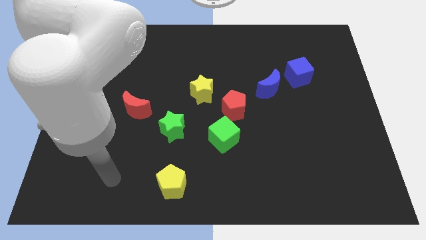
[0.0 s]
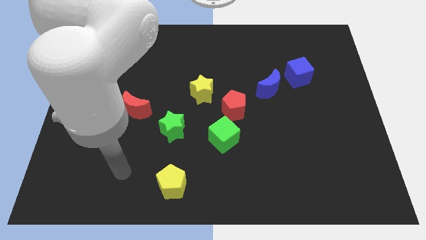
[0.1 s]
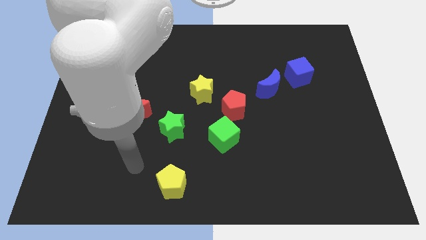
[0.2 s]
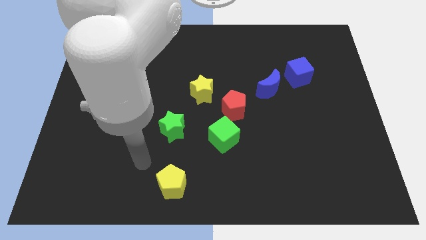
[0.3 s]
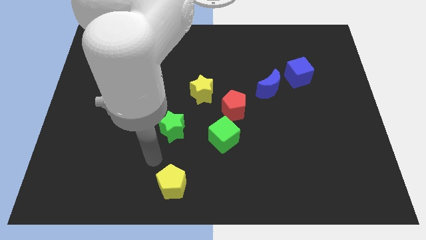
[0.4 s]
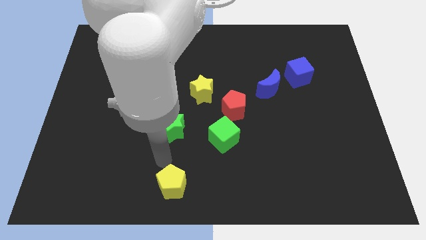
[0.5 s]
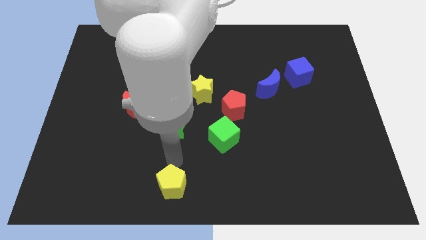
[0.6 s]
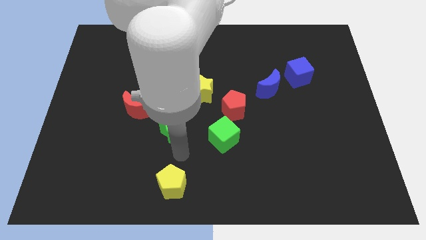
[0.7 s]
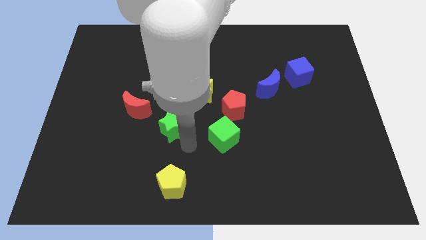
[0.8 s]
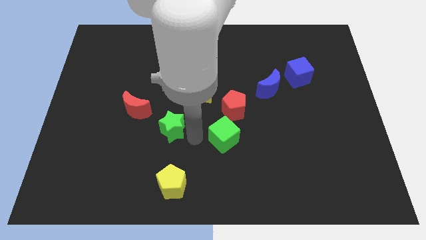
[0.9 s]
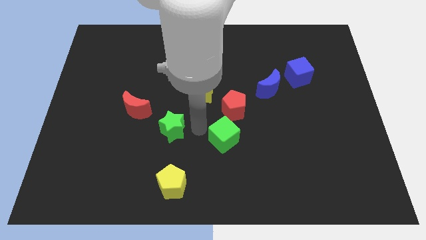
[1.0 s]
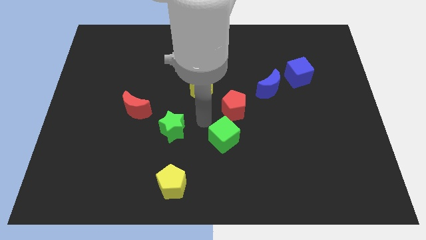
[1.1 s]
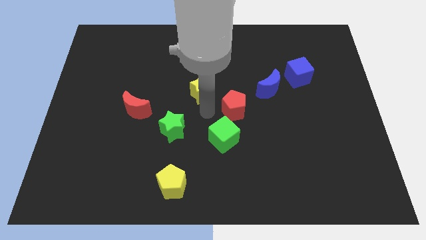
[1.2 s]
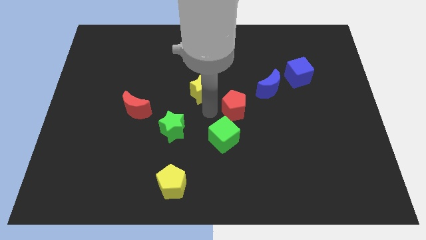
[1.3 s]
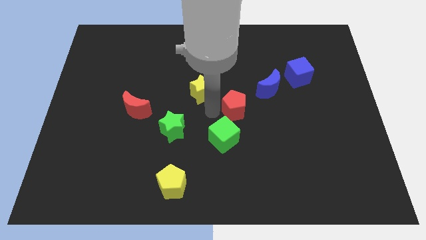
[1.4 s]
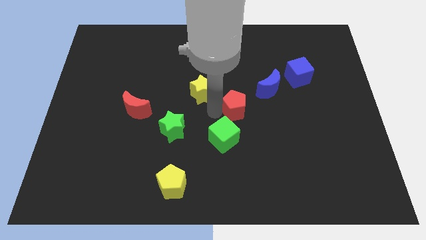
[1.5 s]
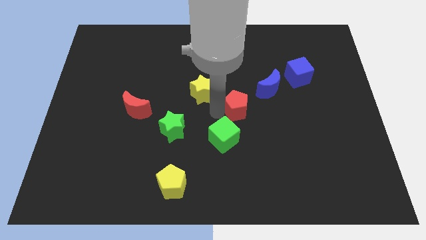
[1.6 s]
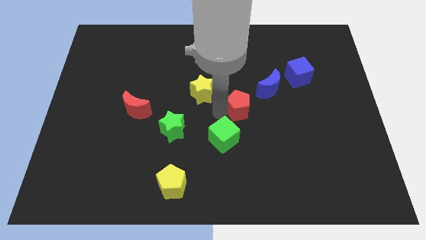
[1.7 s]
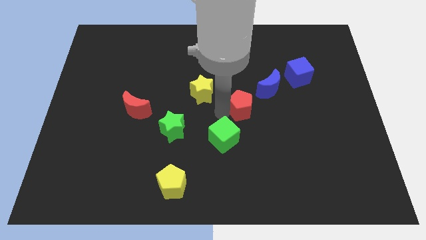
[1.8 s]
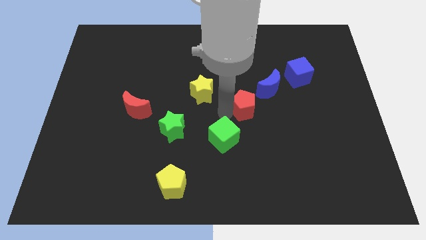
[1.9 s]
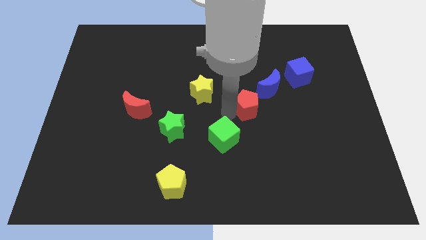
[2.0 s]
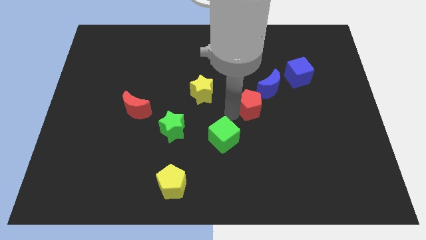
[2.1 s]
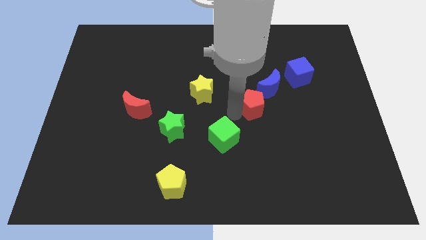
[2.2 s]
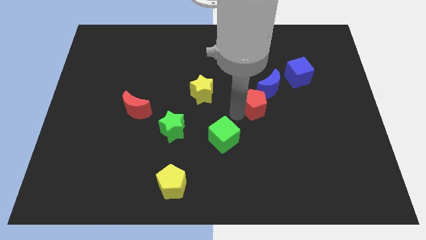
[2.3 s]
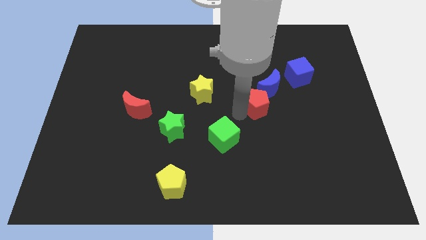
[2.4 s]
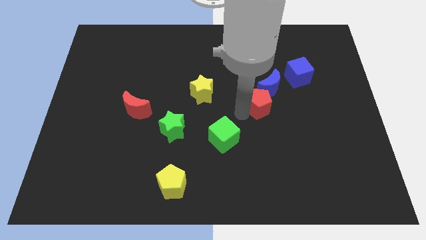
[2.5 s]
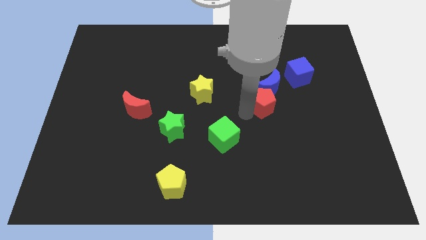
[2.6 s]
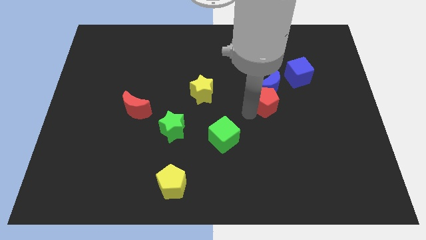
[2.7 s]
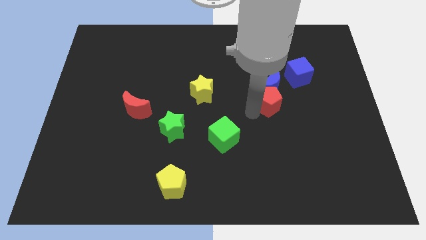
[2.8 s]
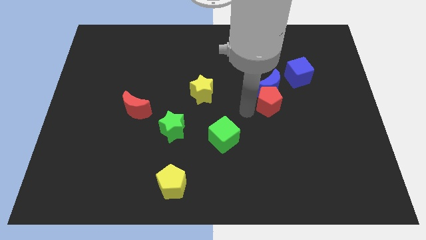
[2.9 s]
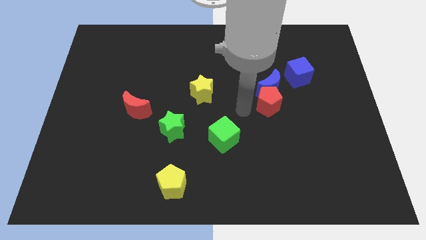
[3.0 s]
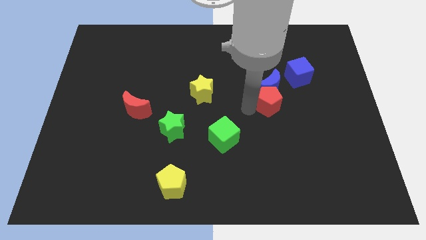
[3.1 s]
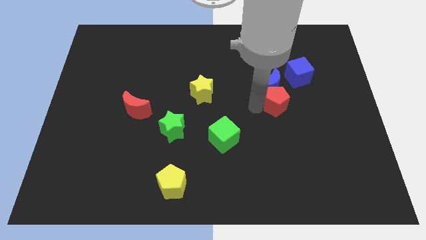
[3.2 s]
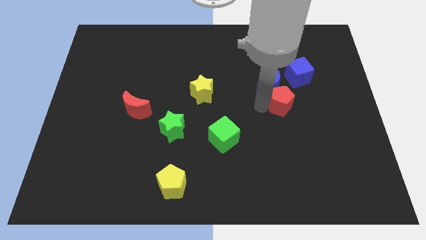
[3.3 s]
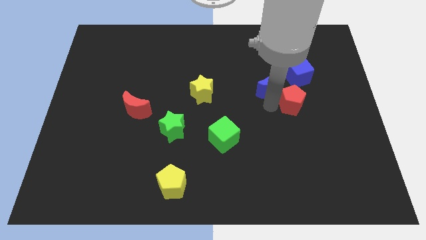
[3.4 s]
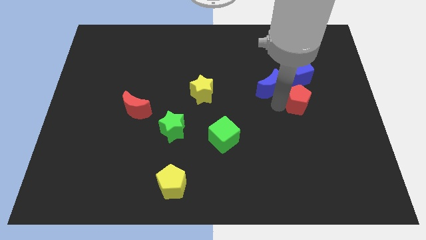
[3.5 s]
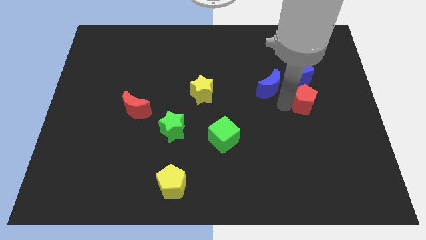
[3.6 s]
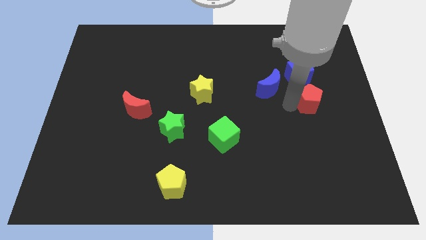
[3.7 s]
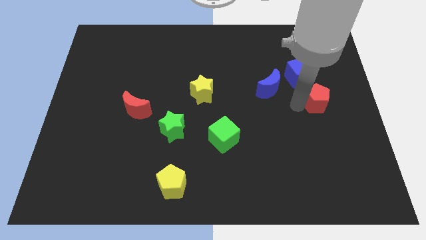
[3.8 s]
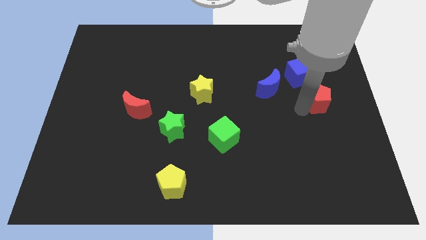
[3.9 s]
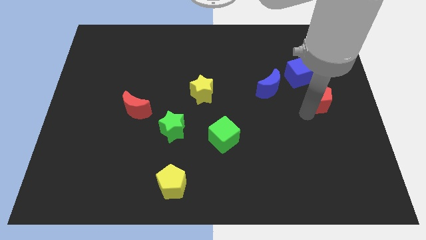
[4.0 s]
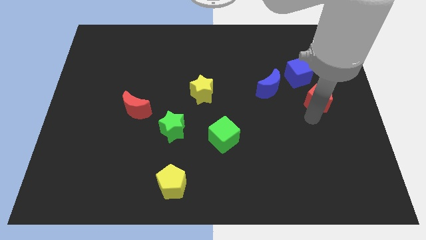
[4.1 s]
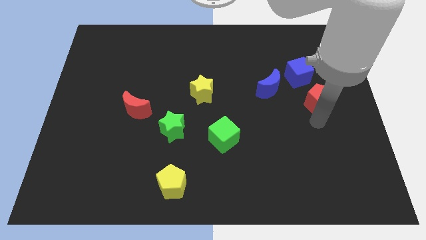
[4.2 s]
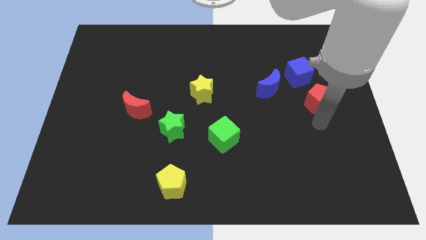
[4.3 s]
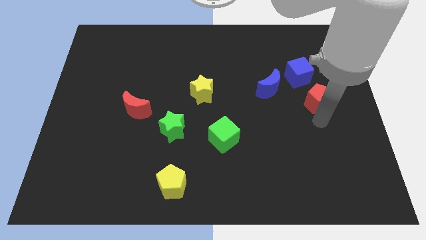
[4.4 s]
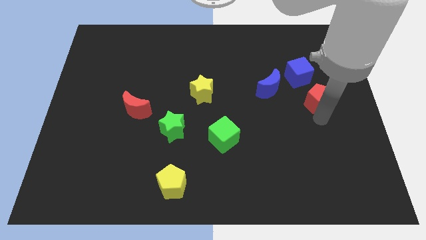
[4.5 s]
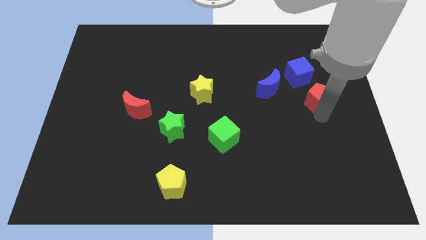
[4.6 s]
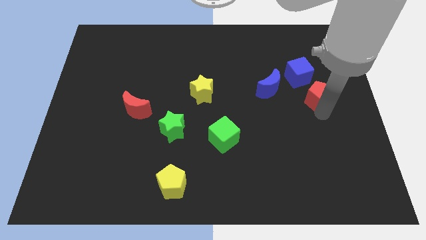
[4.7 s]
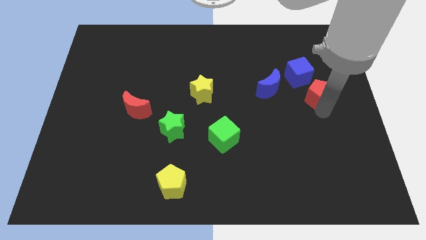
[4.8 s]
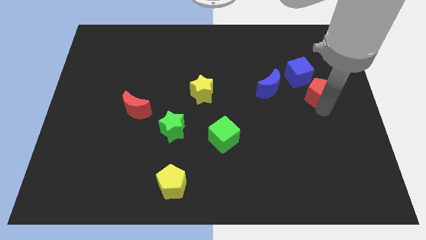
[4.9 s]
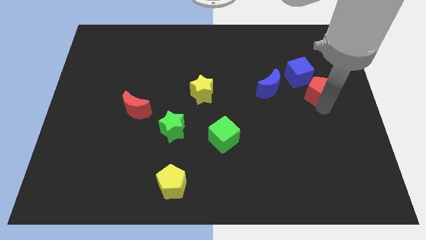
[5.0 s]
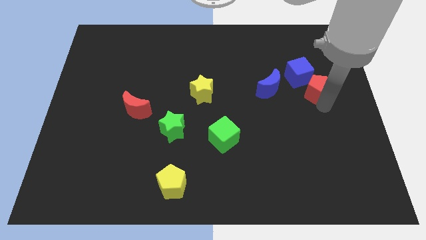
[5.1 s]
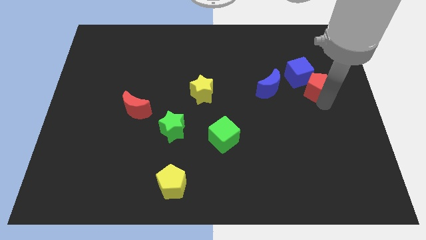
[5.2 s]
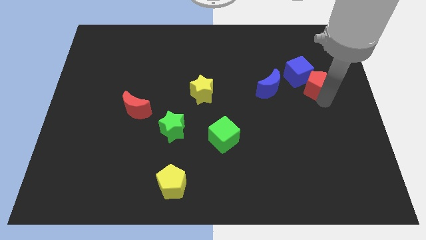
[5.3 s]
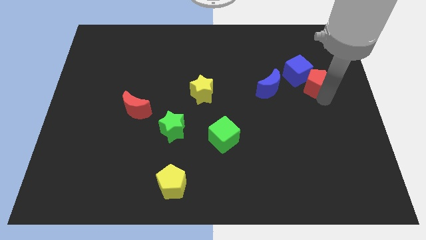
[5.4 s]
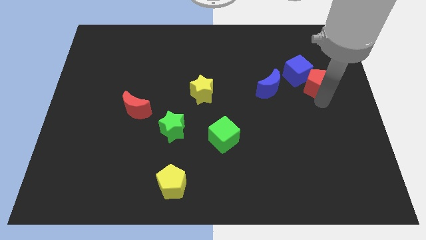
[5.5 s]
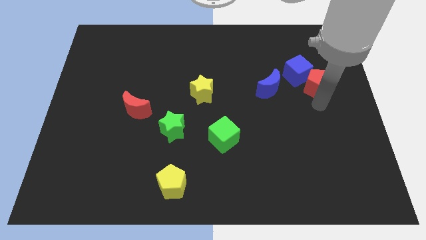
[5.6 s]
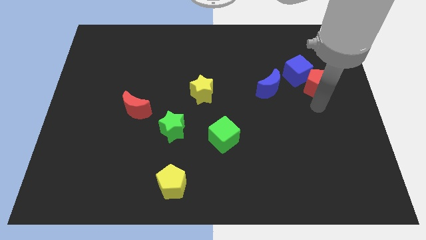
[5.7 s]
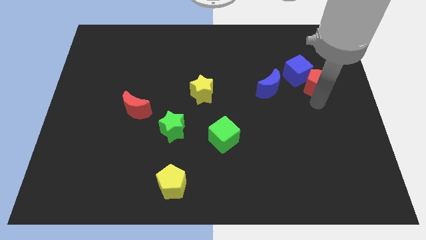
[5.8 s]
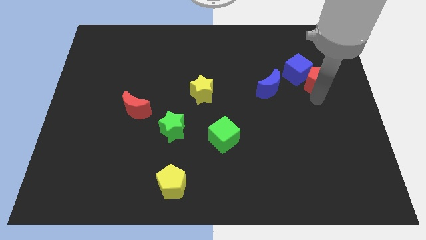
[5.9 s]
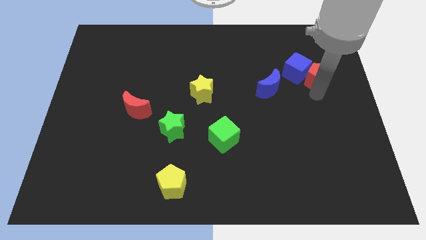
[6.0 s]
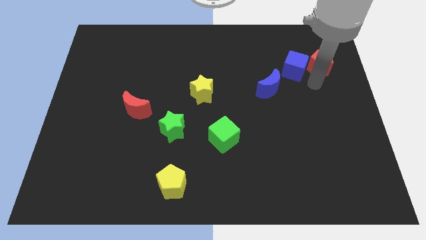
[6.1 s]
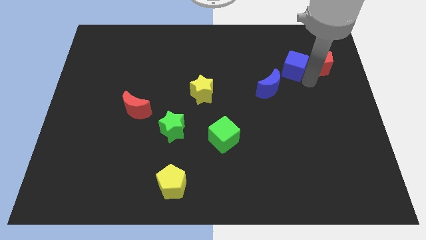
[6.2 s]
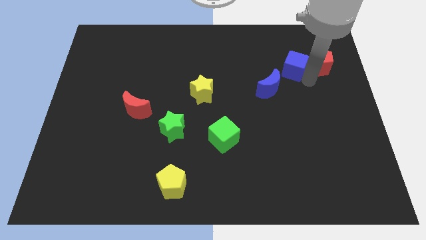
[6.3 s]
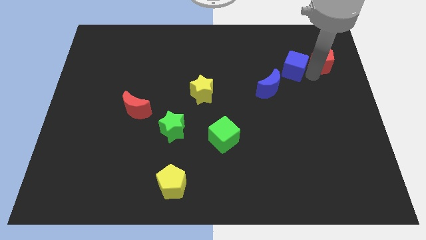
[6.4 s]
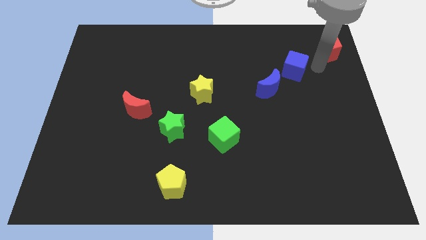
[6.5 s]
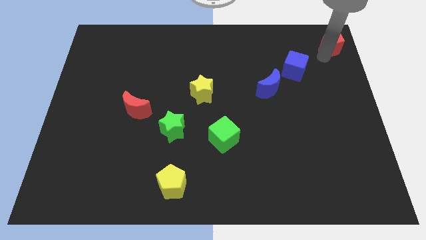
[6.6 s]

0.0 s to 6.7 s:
slide the red pentagon to the top right corner
